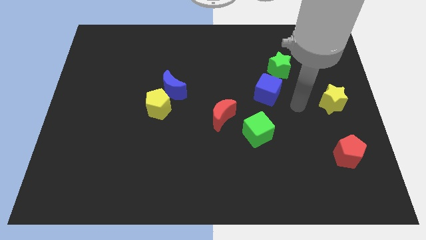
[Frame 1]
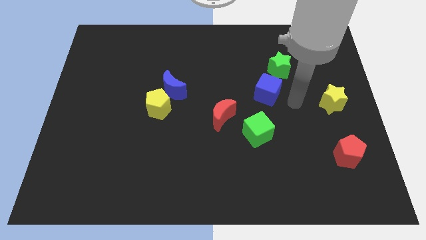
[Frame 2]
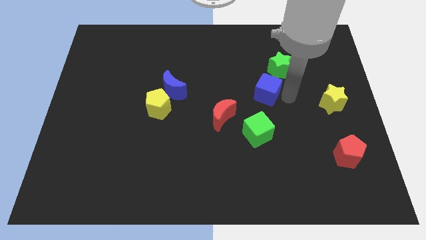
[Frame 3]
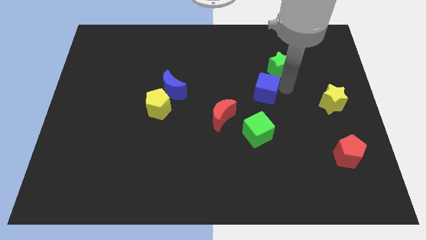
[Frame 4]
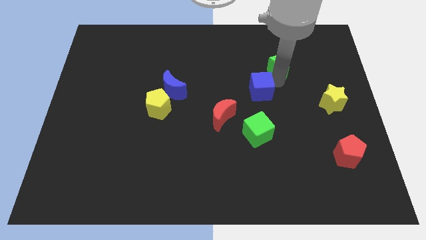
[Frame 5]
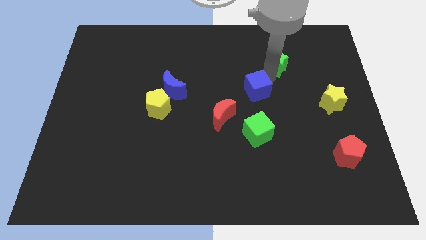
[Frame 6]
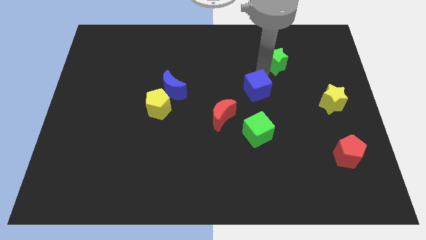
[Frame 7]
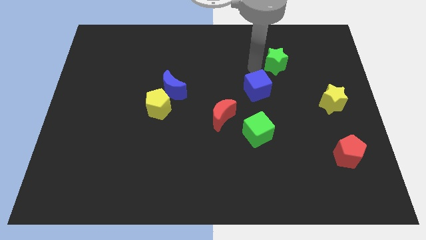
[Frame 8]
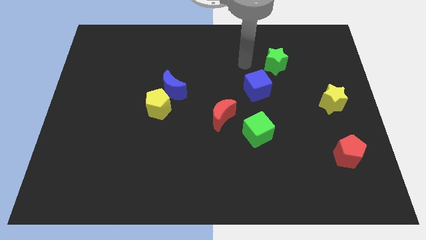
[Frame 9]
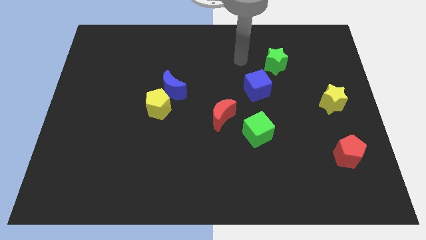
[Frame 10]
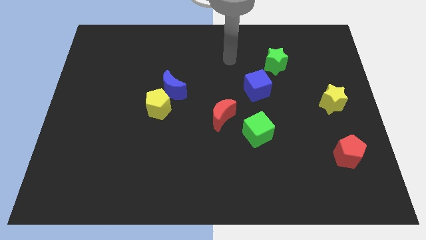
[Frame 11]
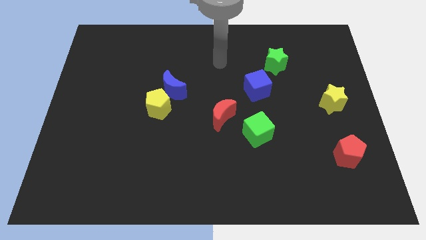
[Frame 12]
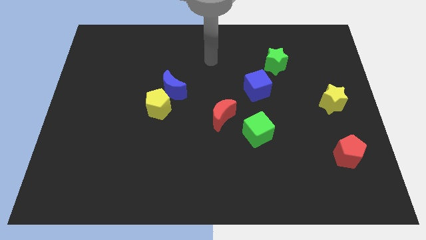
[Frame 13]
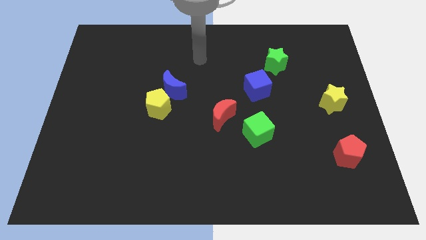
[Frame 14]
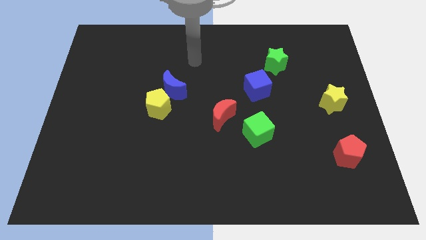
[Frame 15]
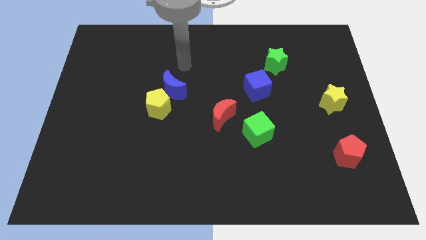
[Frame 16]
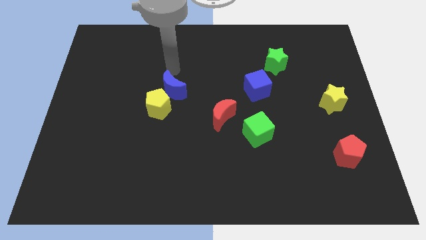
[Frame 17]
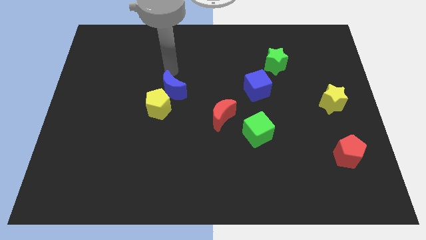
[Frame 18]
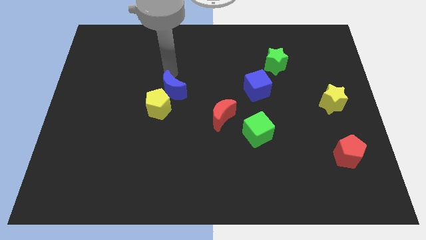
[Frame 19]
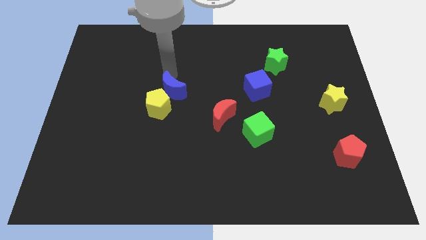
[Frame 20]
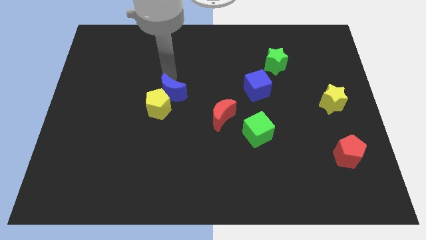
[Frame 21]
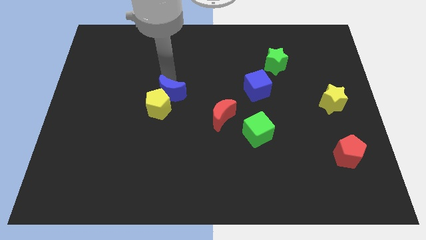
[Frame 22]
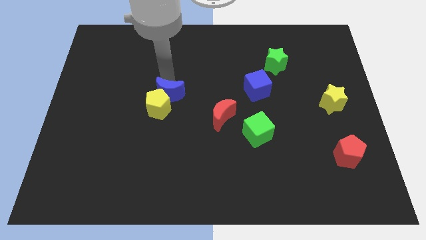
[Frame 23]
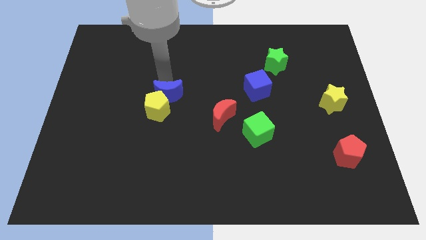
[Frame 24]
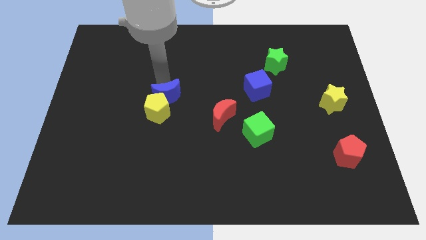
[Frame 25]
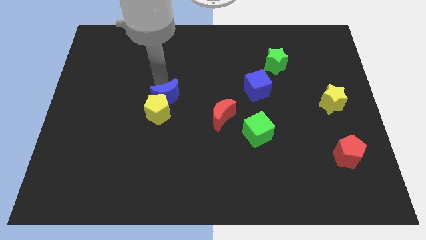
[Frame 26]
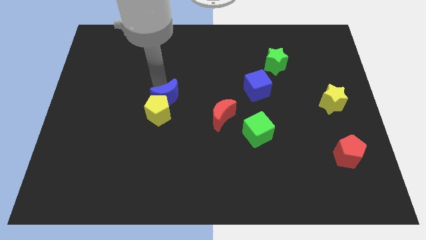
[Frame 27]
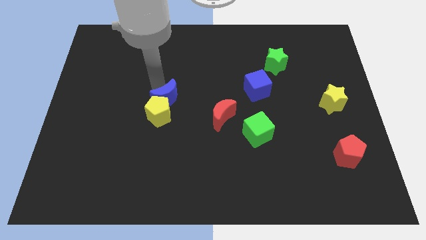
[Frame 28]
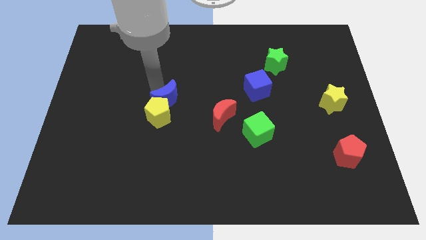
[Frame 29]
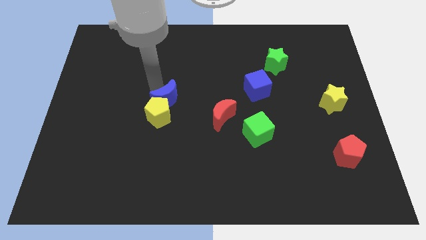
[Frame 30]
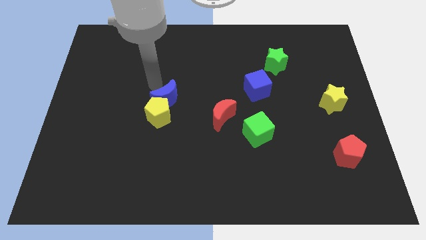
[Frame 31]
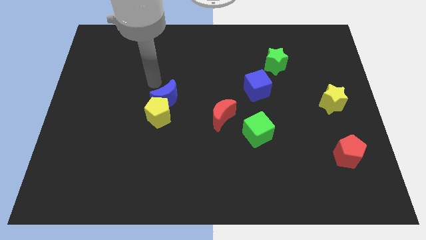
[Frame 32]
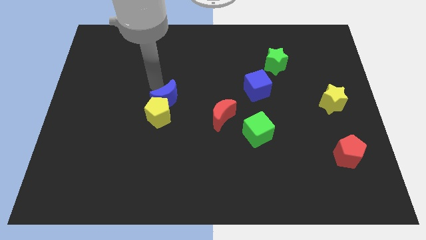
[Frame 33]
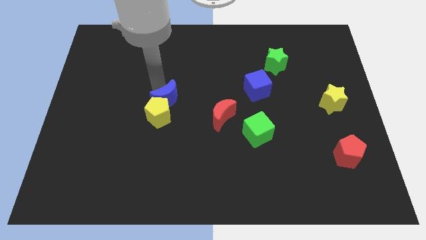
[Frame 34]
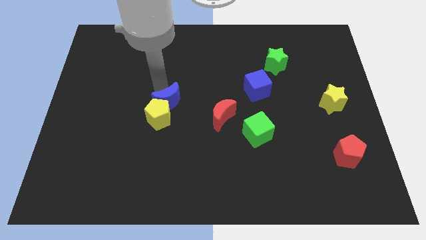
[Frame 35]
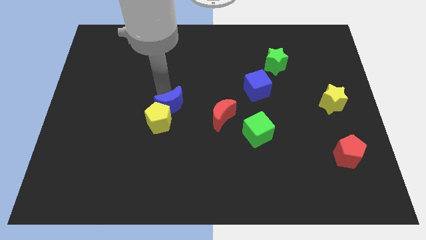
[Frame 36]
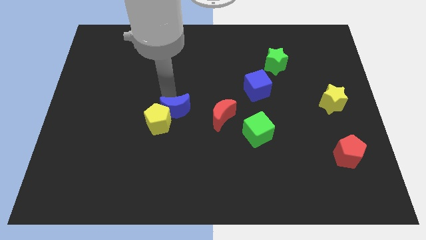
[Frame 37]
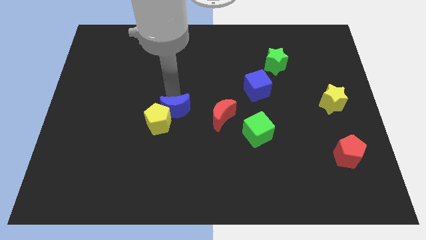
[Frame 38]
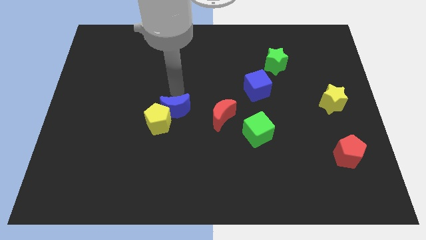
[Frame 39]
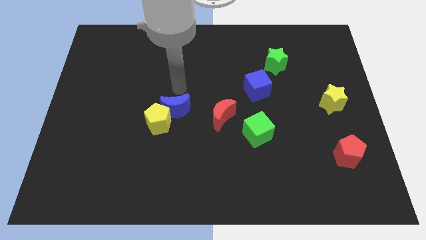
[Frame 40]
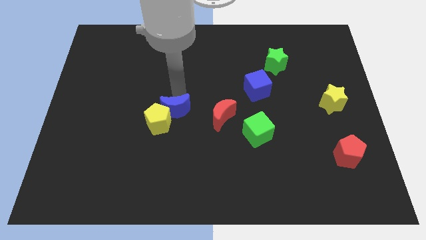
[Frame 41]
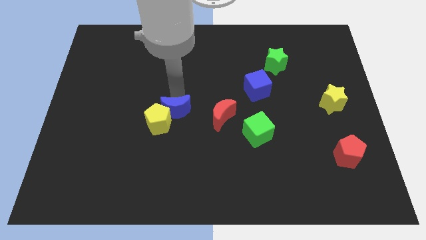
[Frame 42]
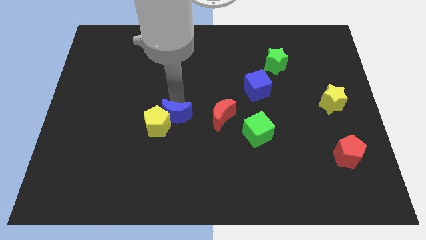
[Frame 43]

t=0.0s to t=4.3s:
slightly push the blue moon downwards

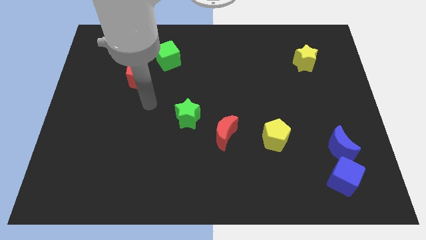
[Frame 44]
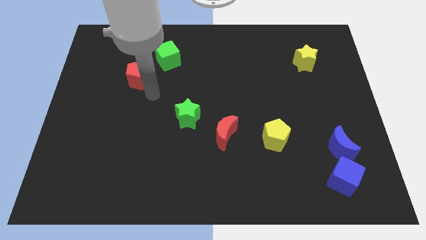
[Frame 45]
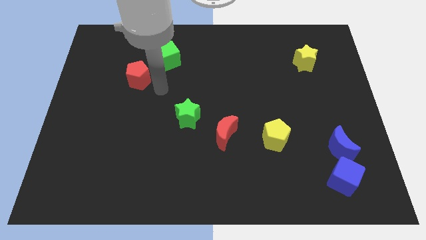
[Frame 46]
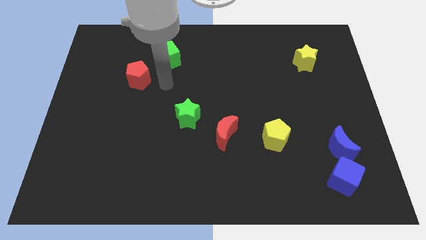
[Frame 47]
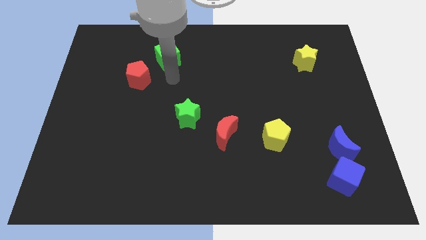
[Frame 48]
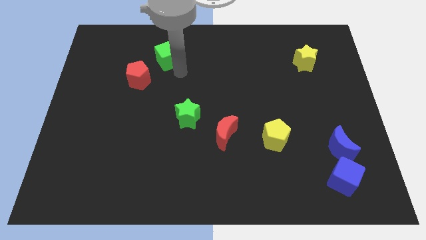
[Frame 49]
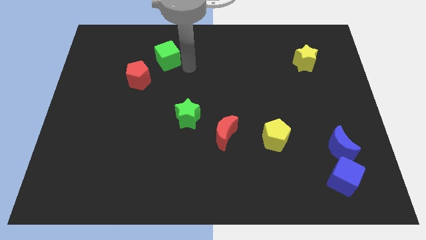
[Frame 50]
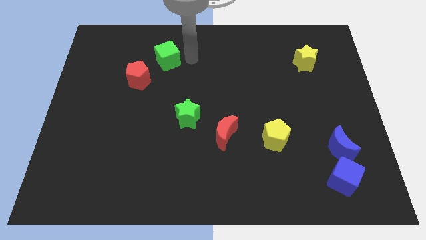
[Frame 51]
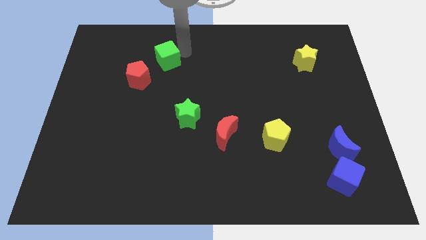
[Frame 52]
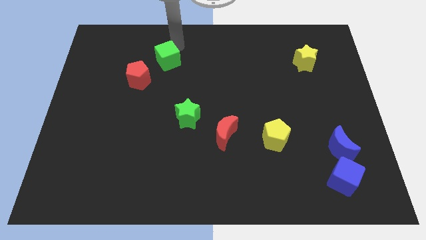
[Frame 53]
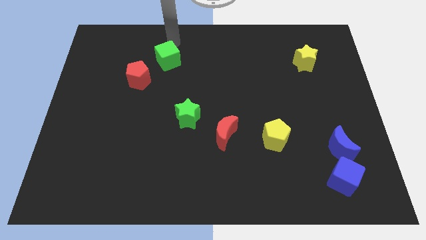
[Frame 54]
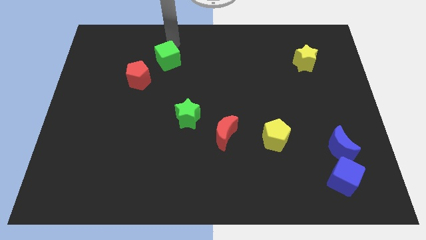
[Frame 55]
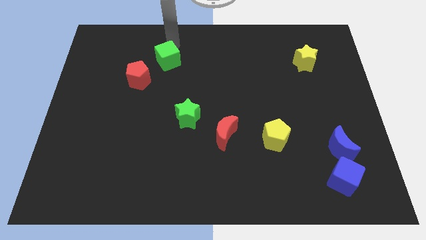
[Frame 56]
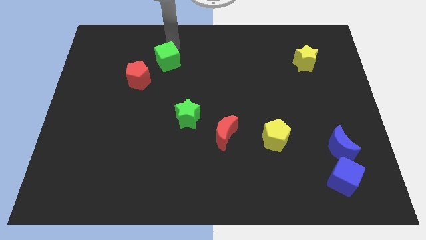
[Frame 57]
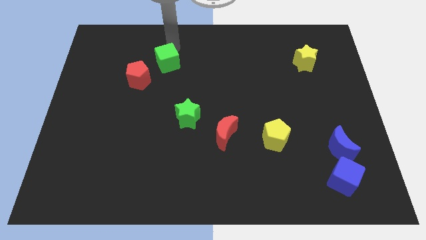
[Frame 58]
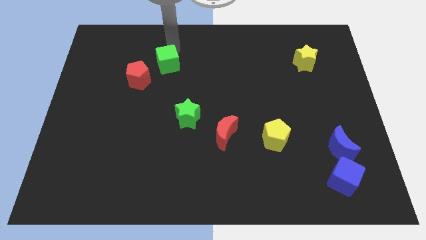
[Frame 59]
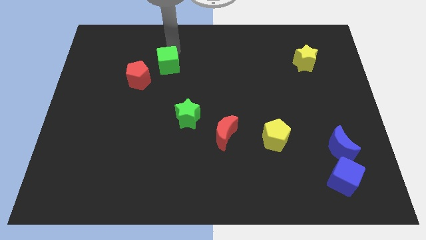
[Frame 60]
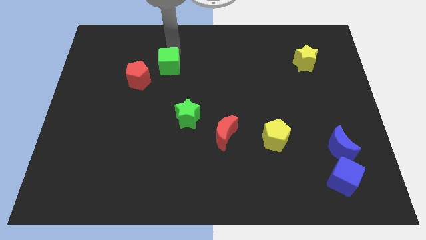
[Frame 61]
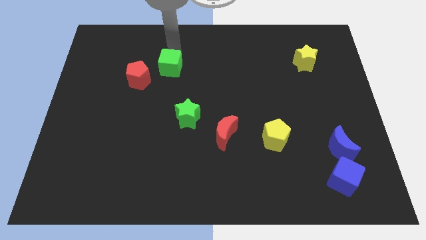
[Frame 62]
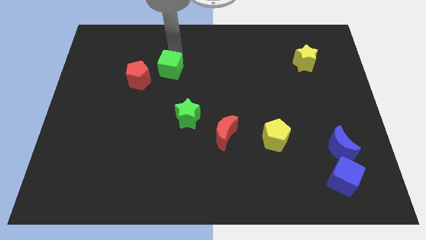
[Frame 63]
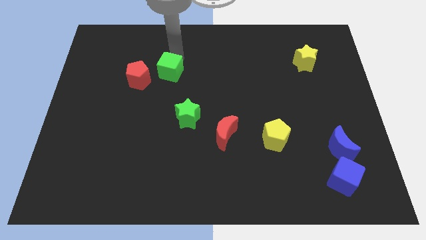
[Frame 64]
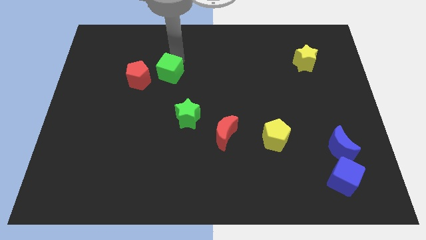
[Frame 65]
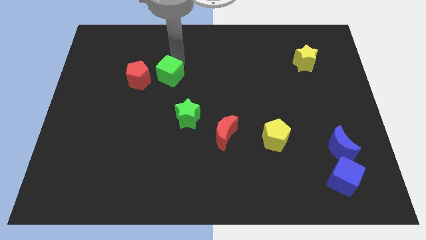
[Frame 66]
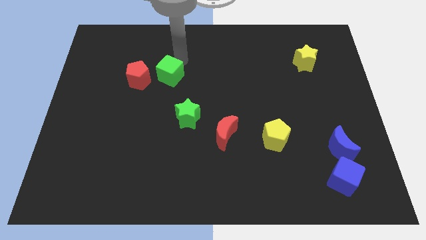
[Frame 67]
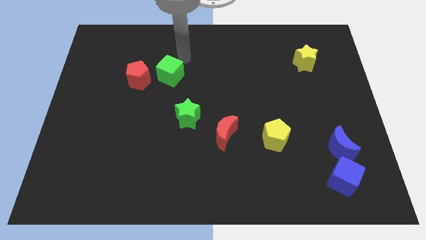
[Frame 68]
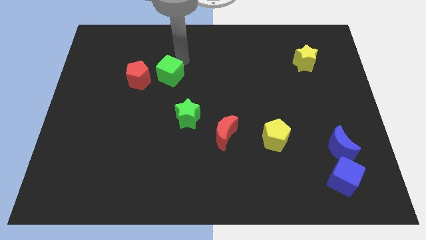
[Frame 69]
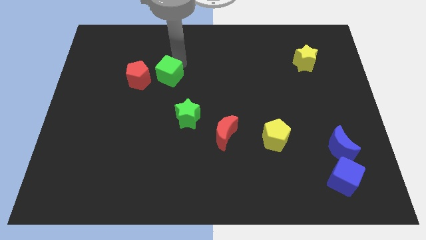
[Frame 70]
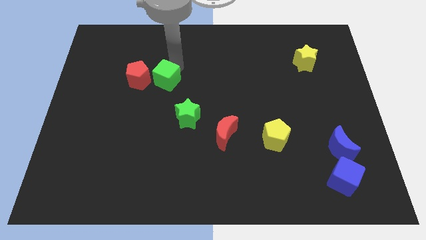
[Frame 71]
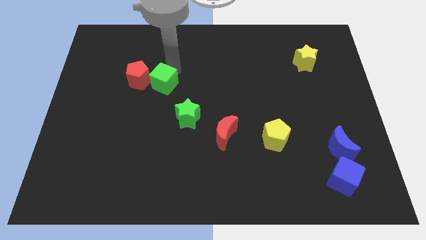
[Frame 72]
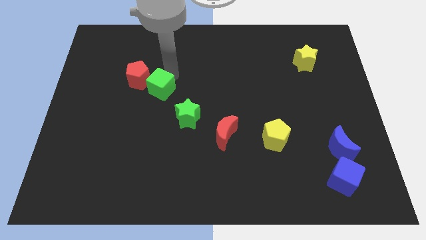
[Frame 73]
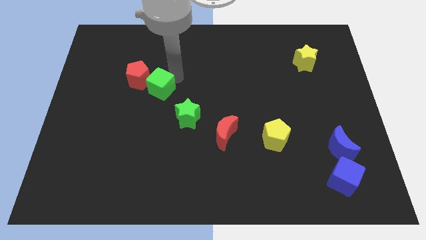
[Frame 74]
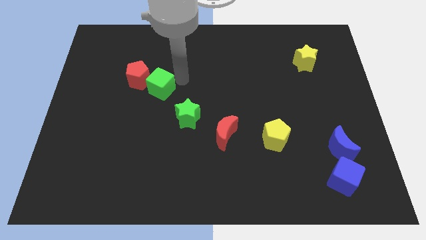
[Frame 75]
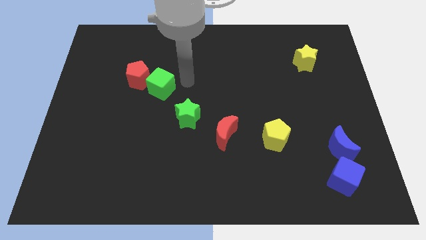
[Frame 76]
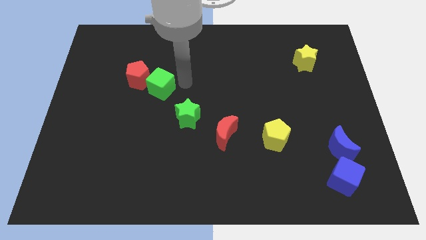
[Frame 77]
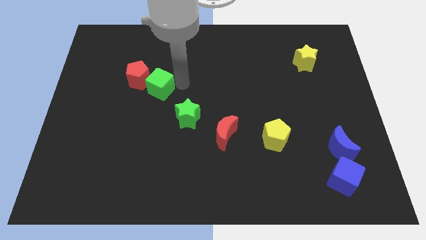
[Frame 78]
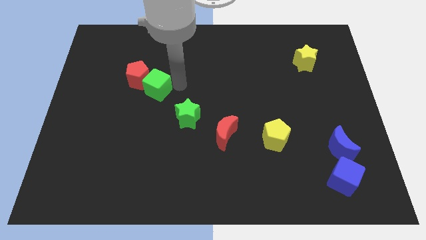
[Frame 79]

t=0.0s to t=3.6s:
move the green cube somewhat downwards and to the left diagonally
